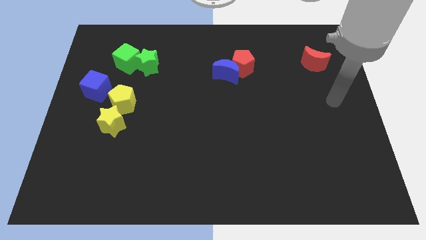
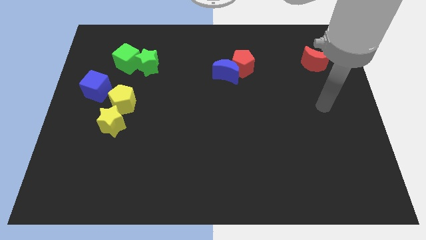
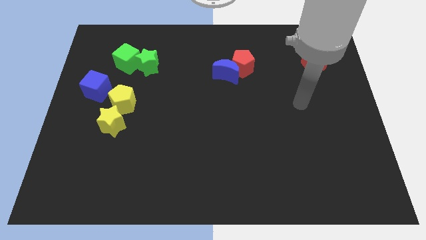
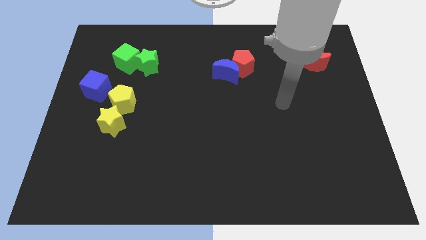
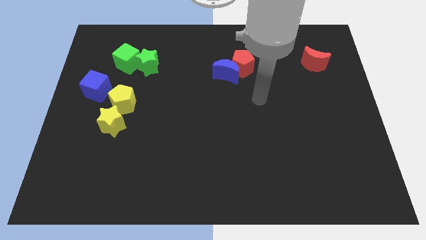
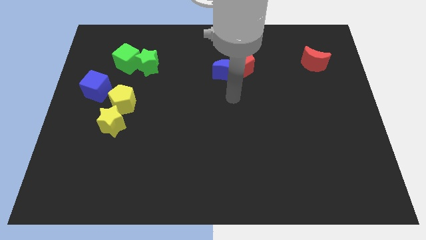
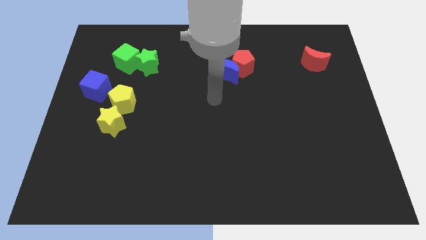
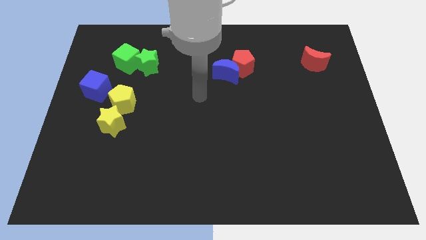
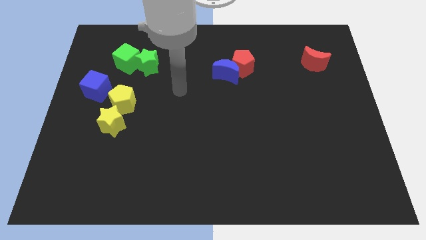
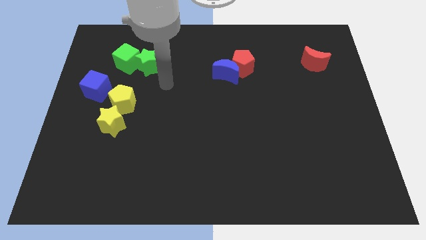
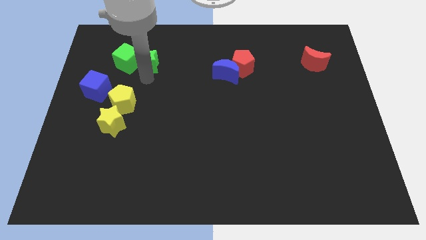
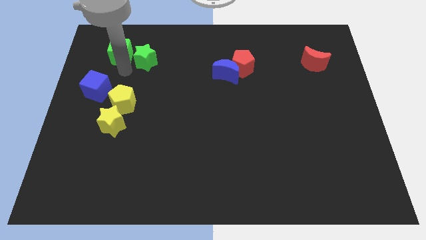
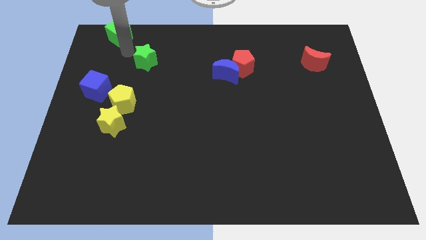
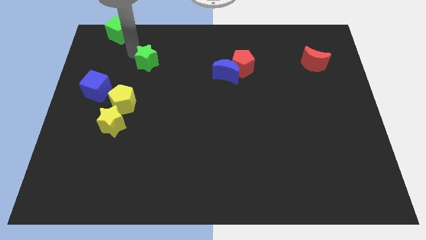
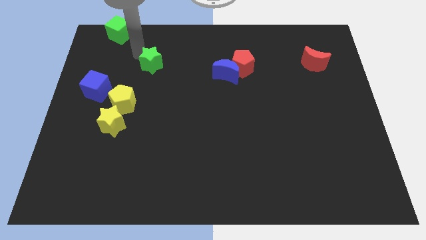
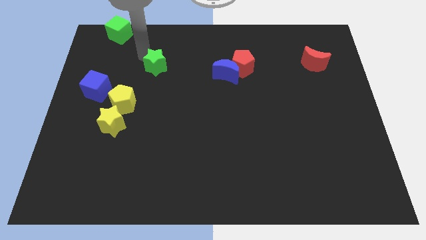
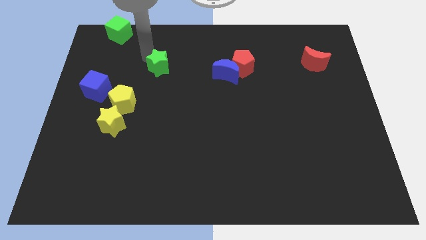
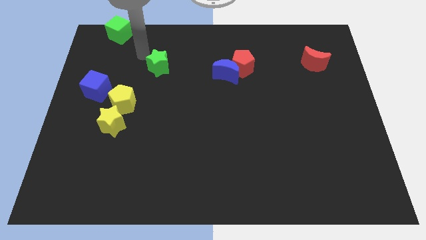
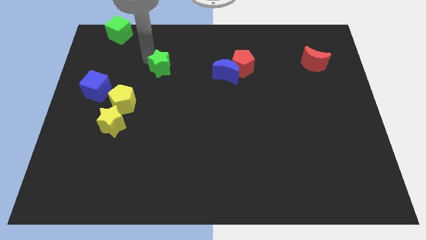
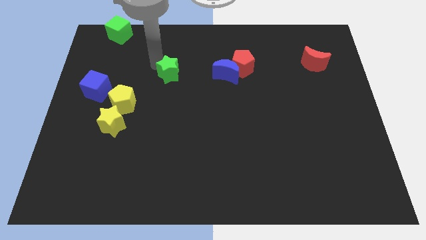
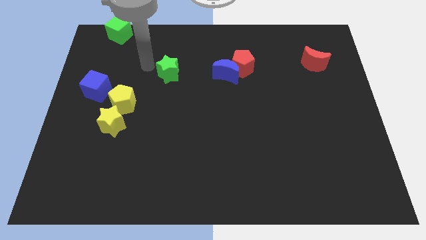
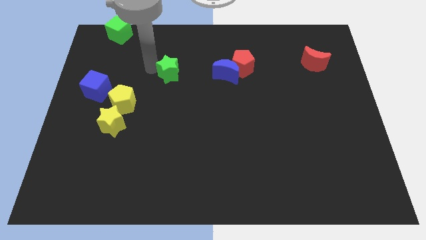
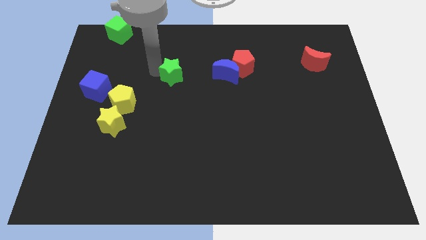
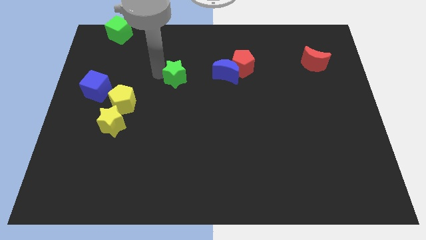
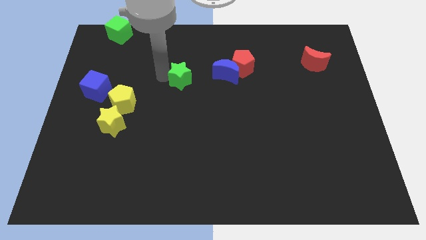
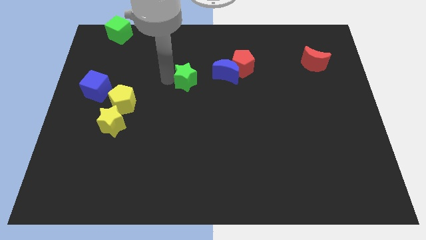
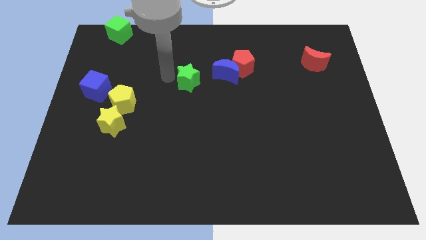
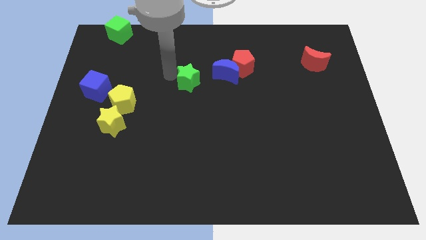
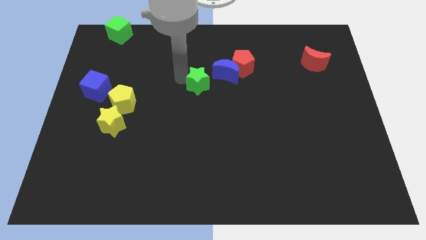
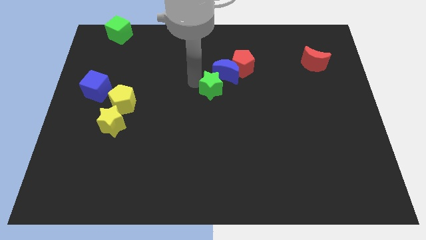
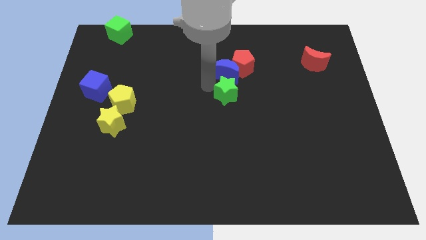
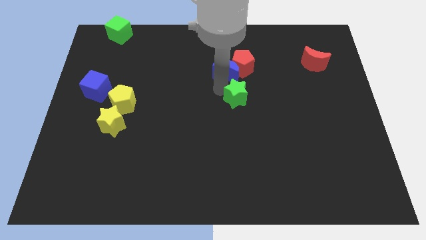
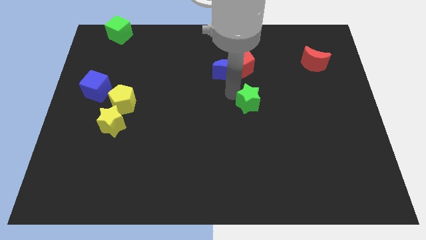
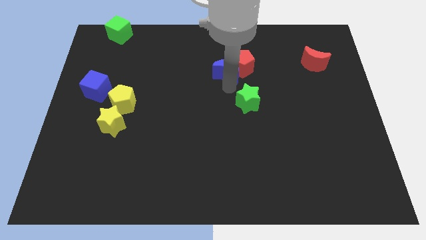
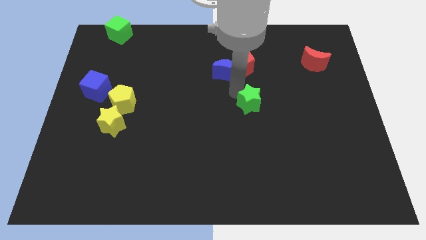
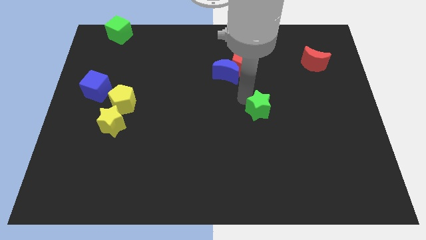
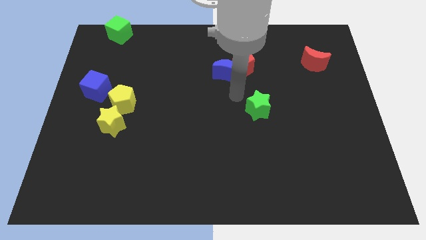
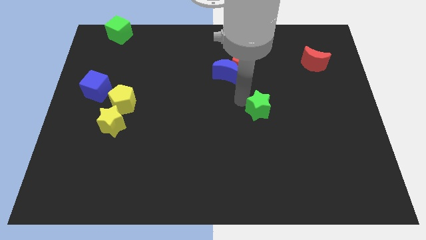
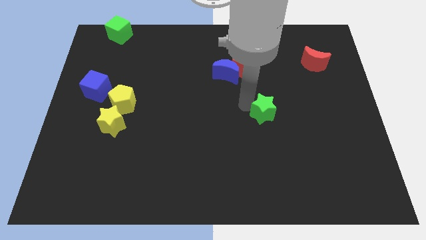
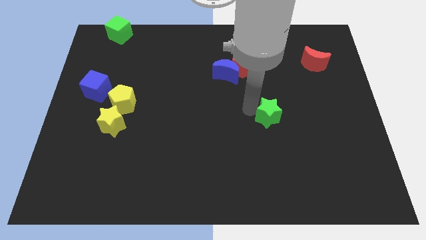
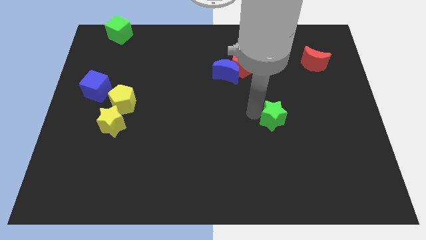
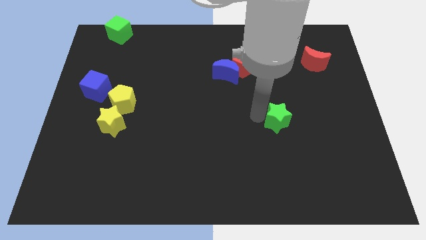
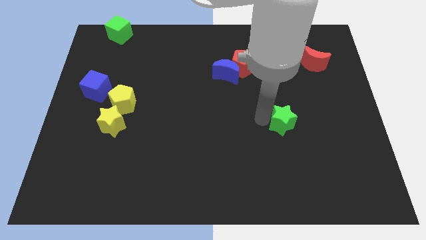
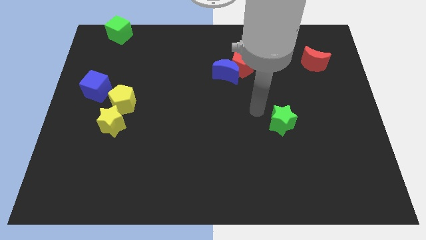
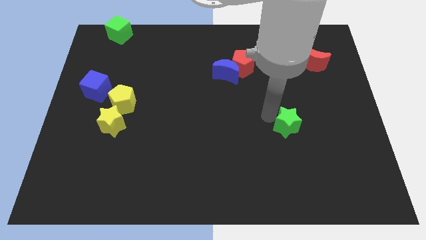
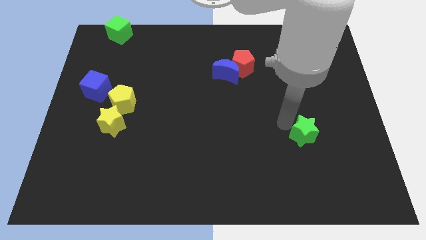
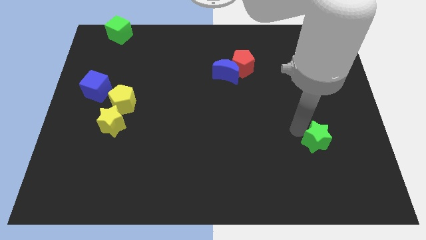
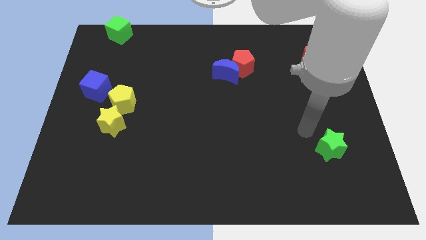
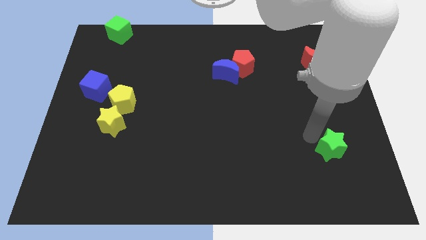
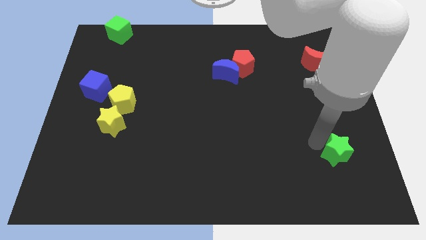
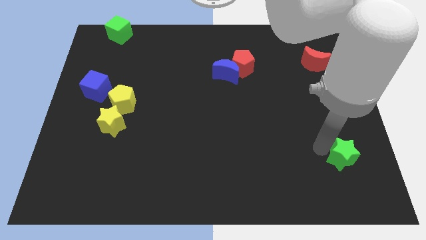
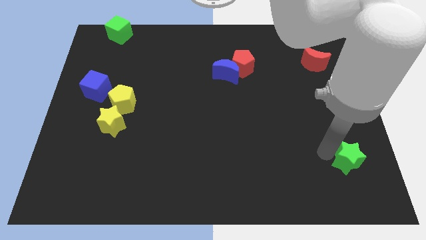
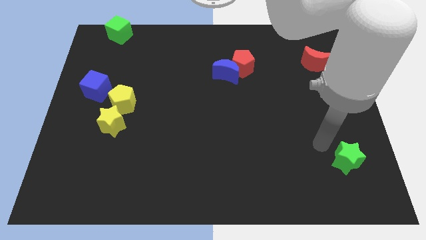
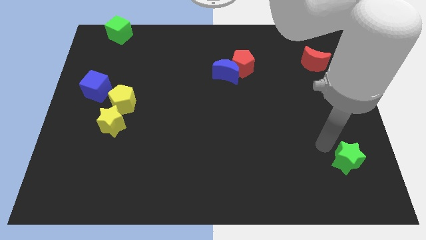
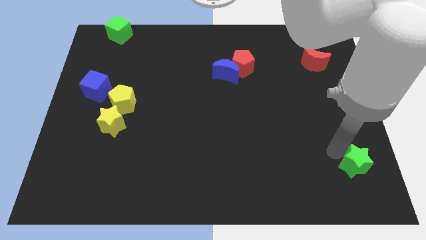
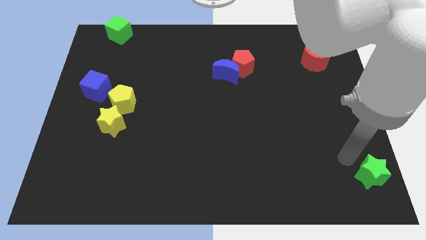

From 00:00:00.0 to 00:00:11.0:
push the green star to the bottom right
